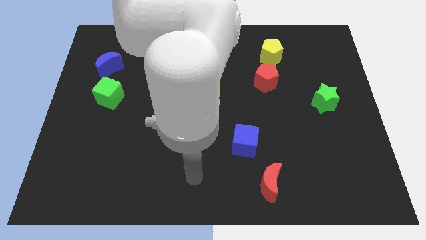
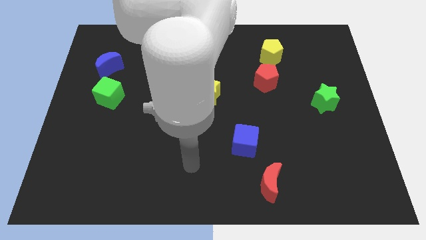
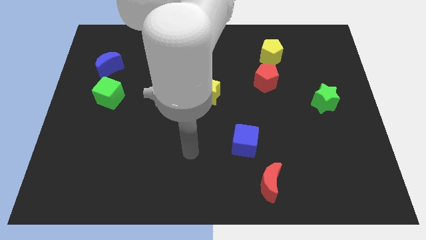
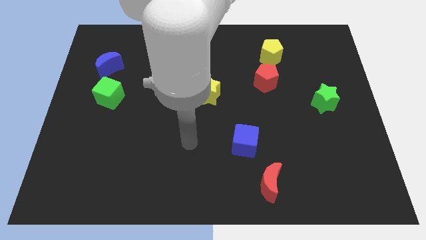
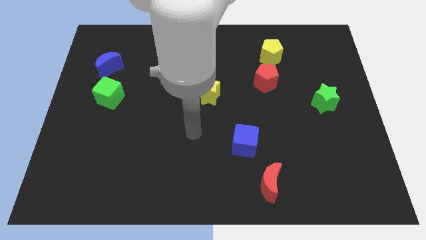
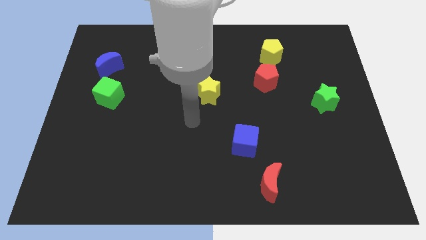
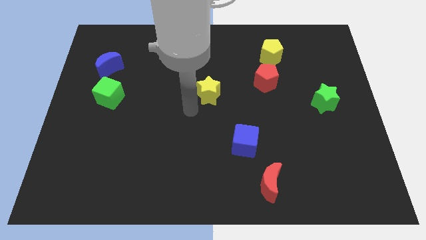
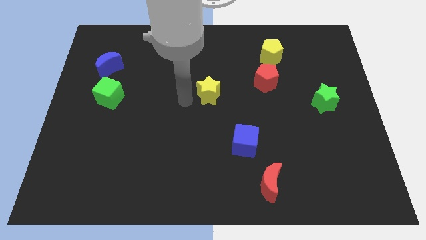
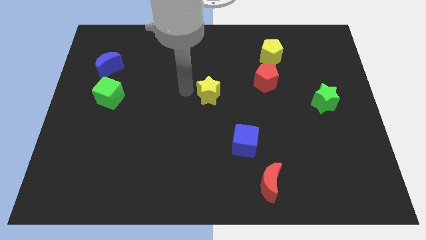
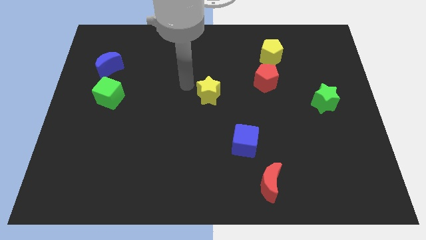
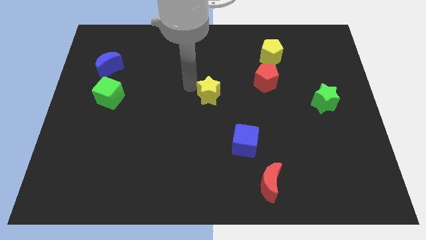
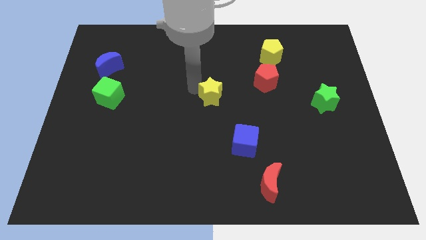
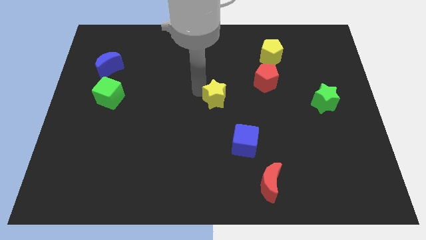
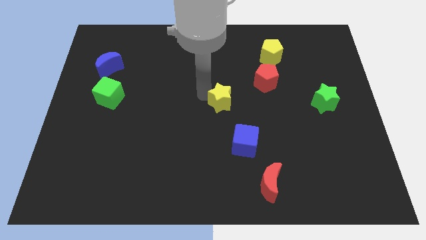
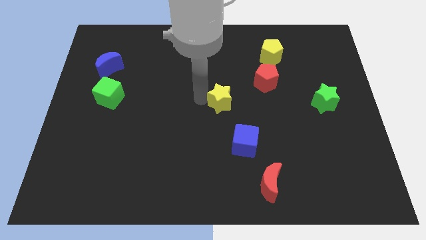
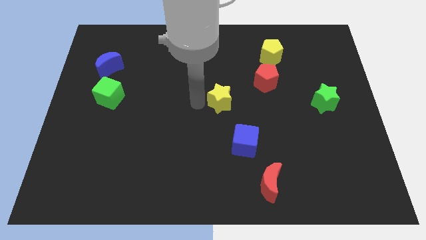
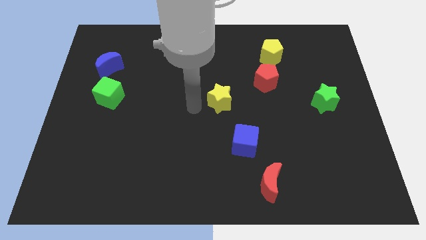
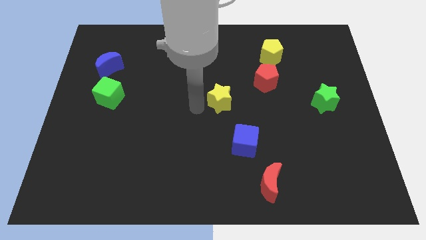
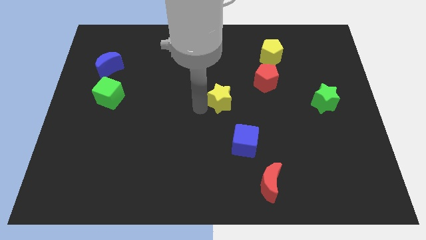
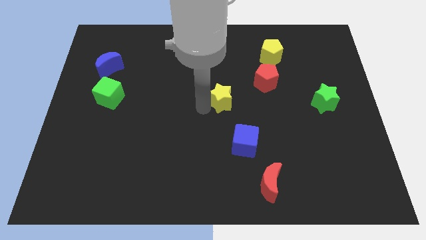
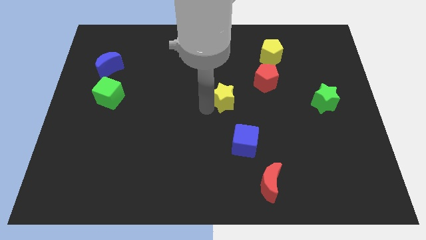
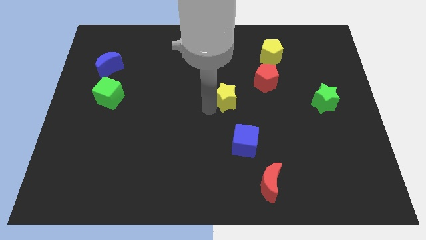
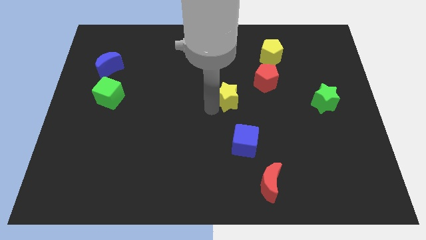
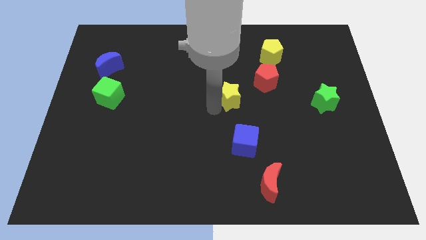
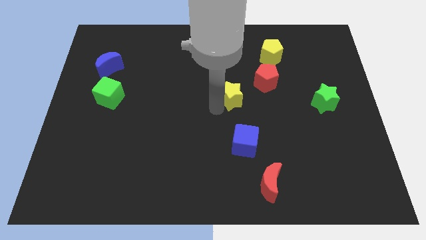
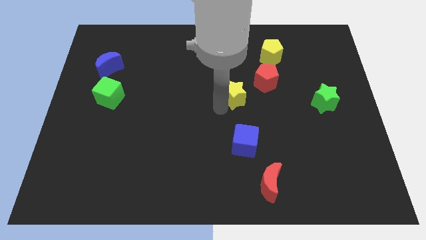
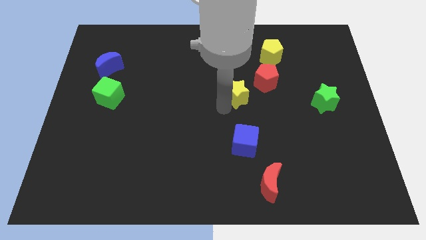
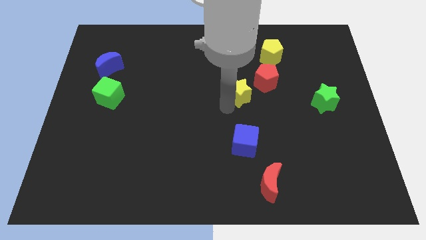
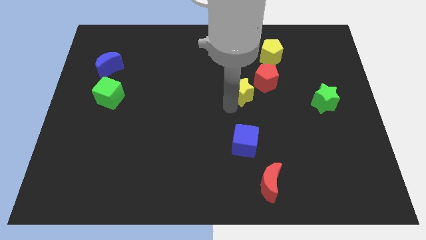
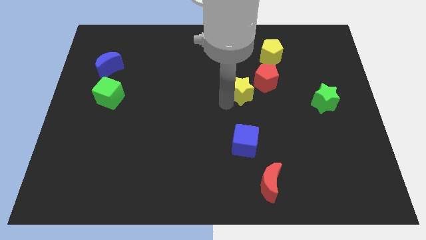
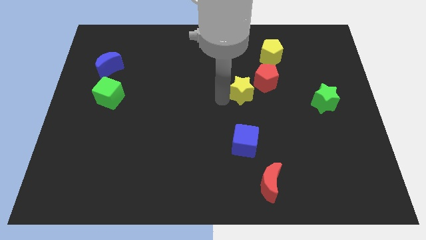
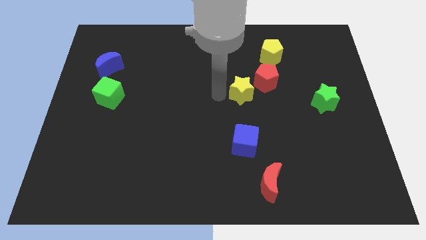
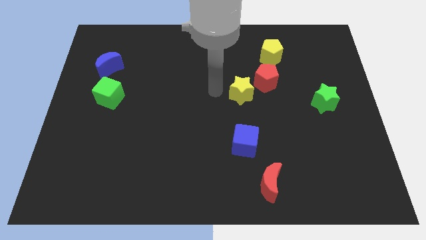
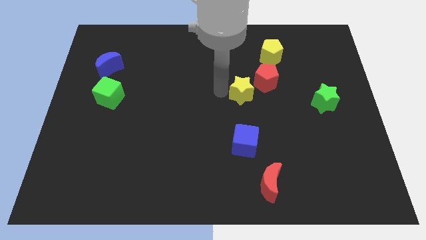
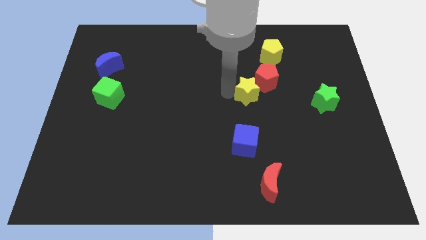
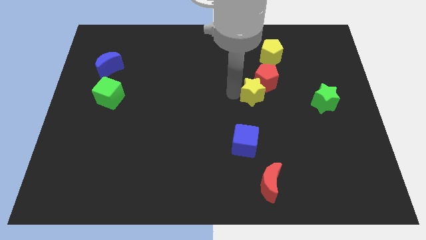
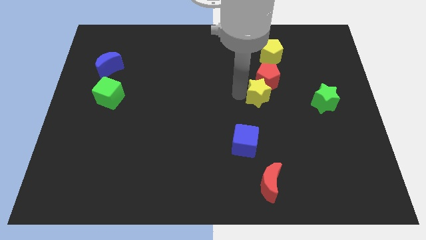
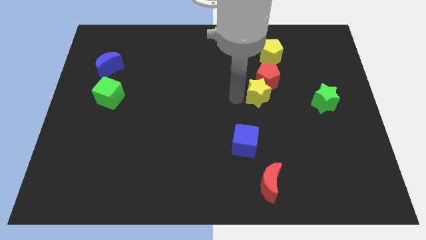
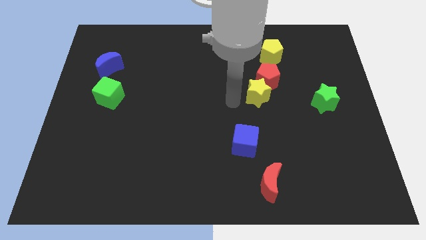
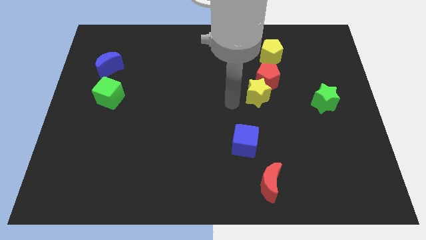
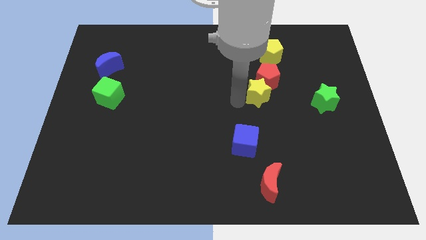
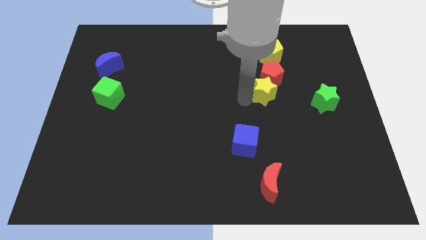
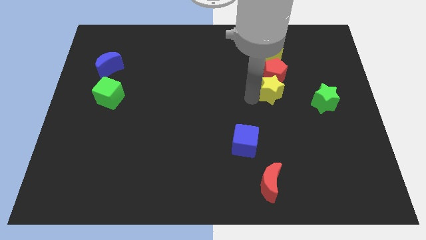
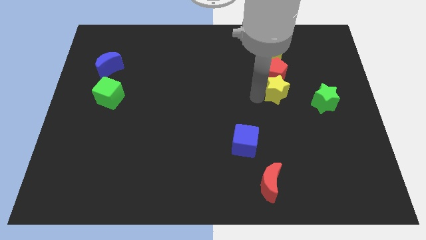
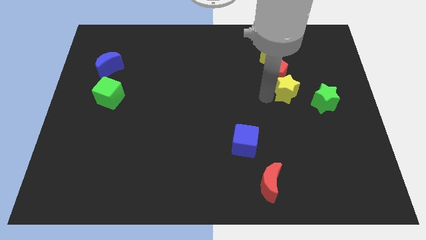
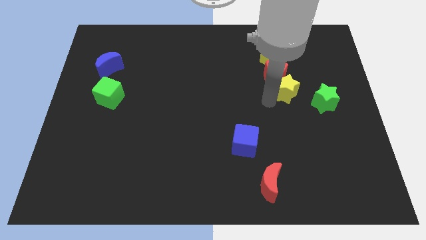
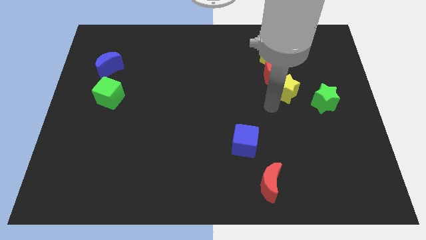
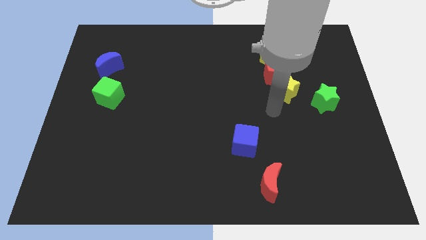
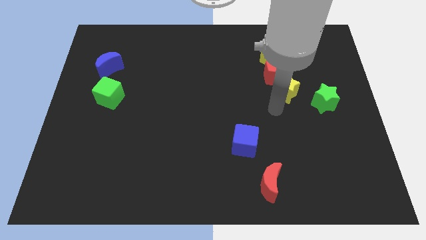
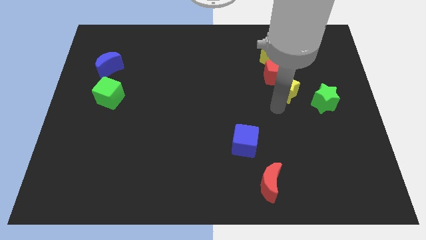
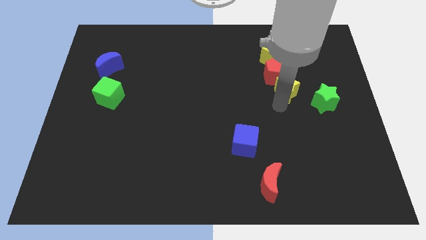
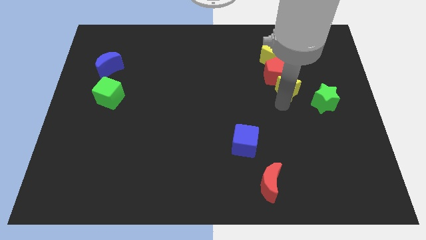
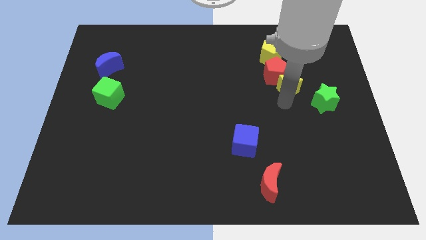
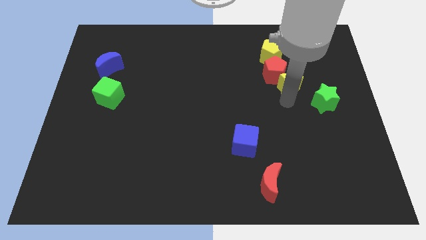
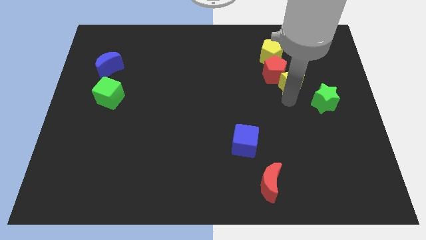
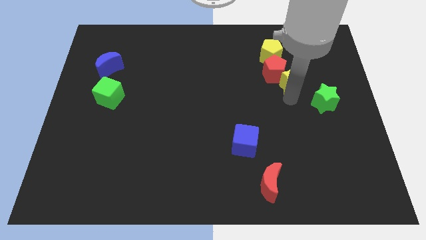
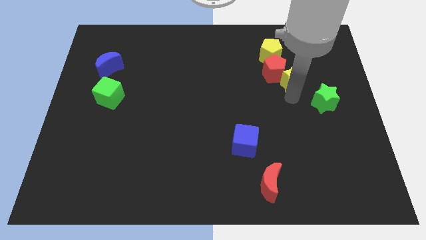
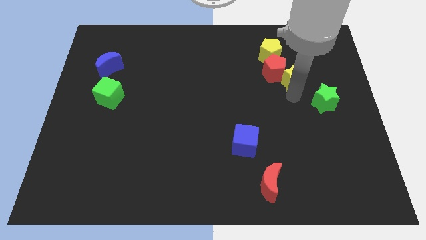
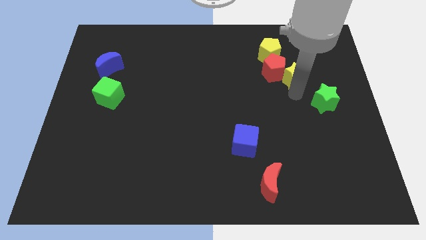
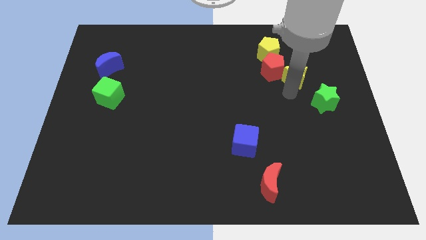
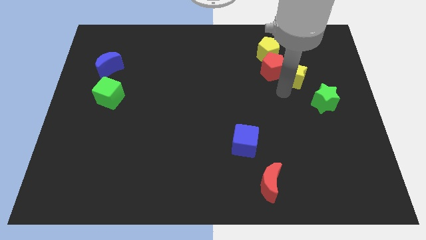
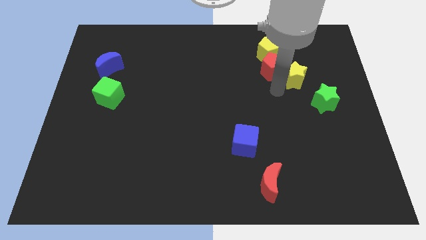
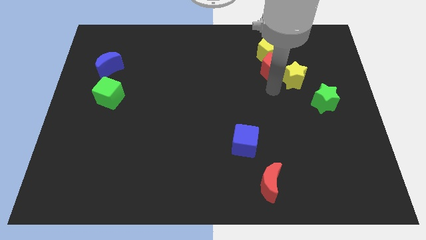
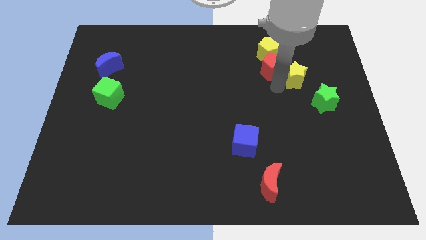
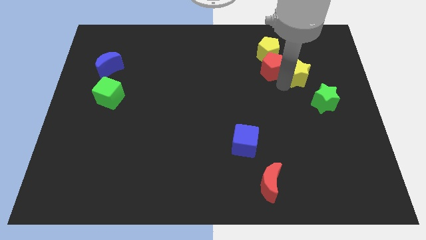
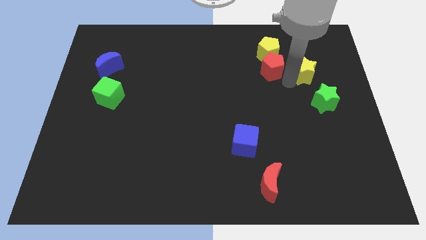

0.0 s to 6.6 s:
move the yellow star to the top side of the green star

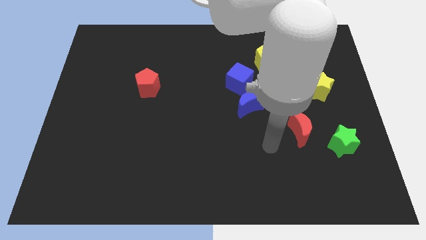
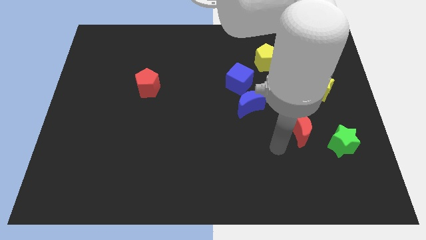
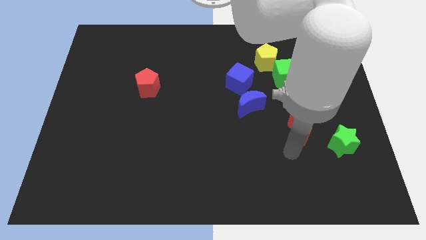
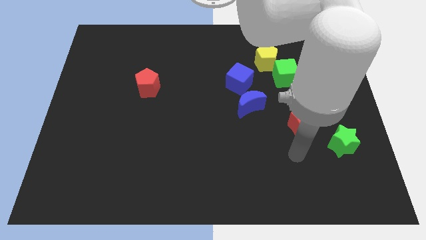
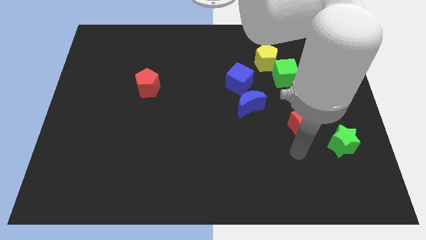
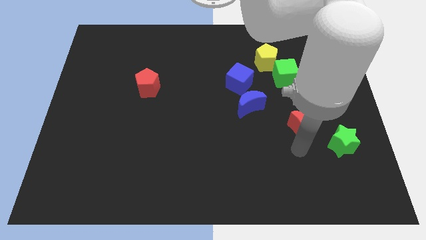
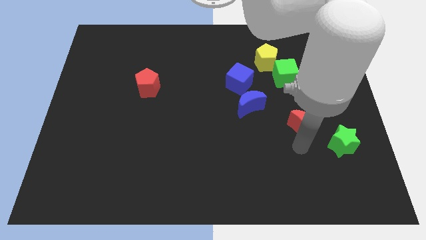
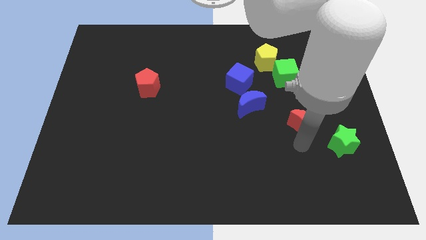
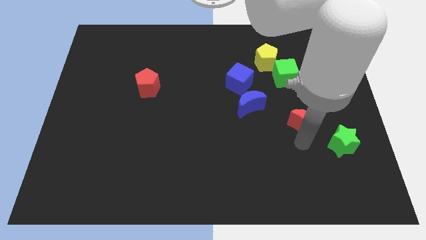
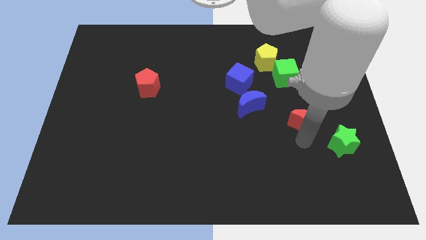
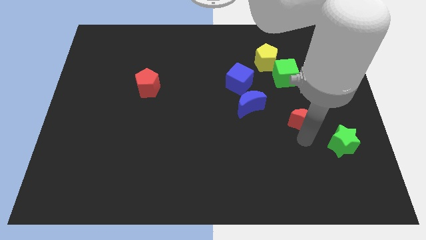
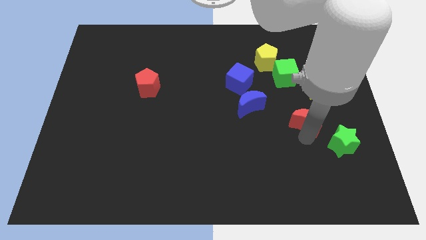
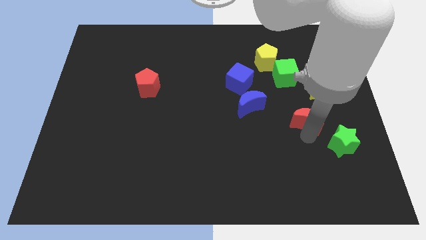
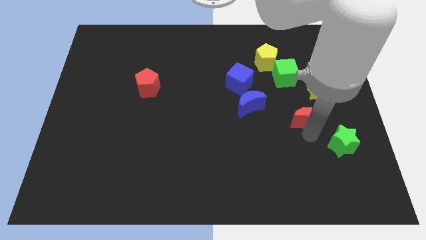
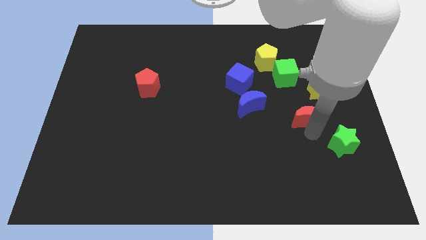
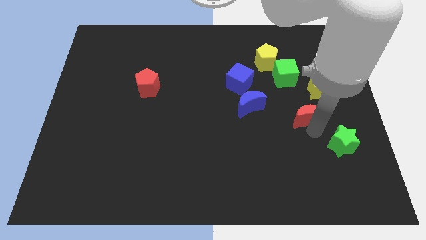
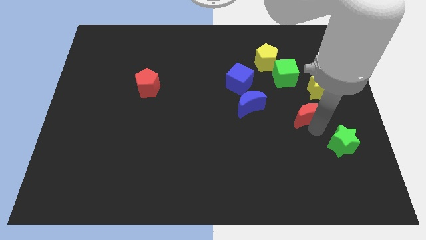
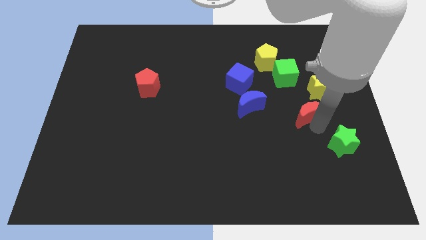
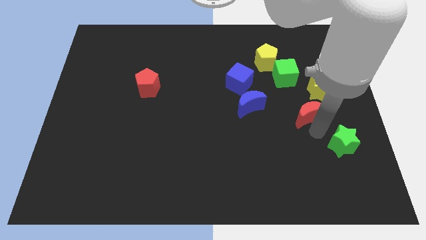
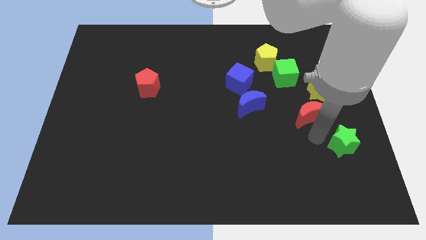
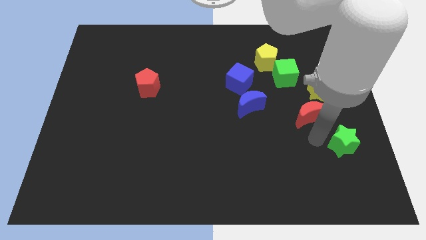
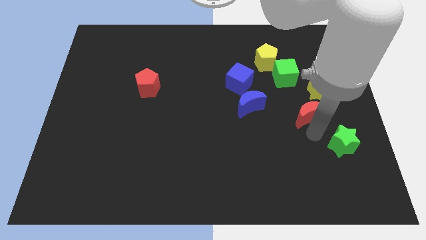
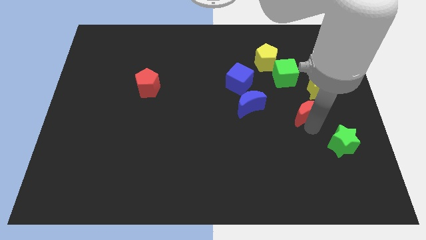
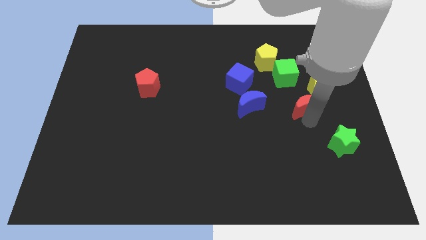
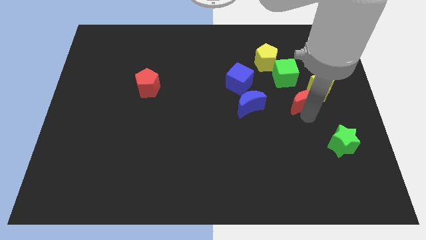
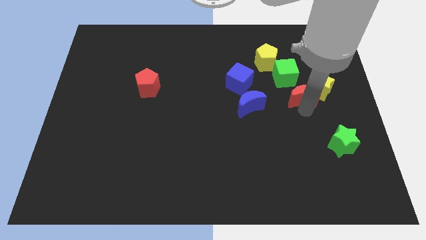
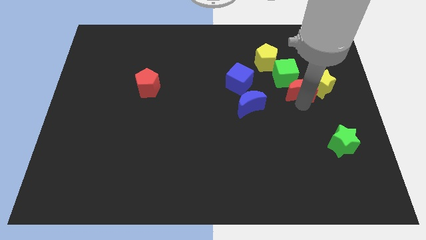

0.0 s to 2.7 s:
slide the red moon just right of the blue cube
